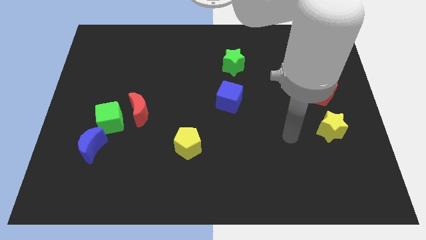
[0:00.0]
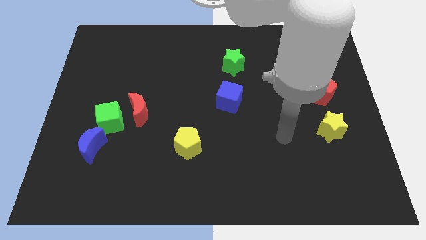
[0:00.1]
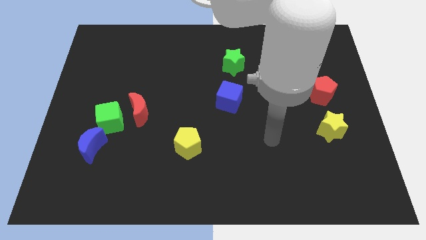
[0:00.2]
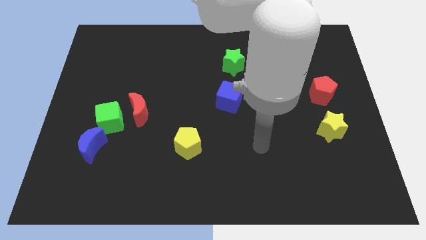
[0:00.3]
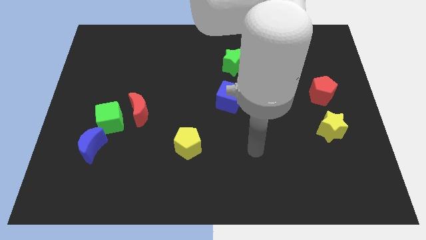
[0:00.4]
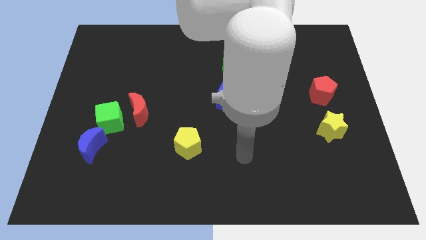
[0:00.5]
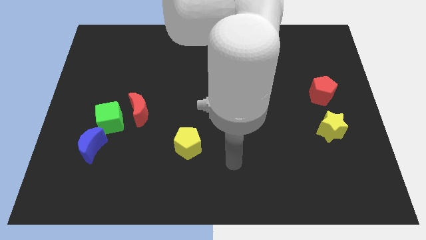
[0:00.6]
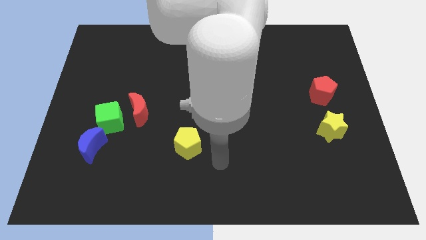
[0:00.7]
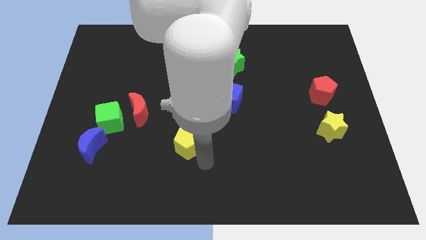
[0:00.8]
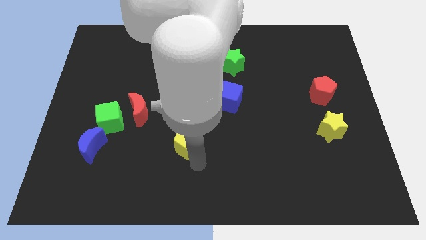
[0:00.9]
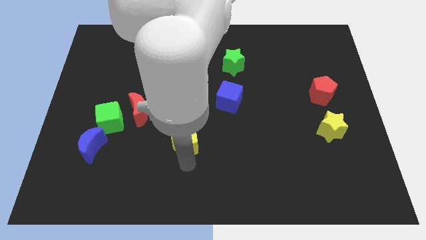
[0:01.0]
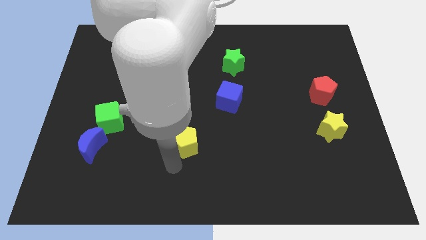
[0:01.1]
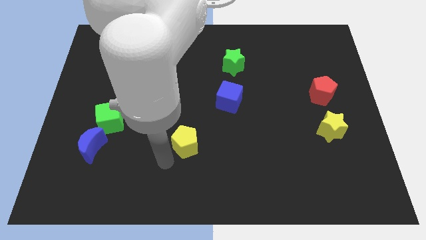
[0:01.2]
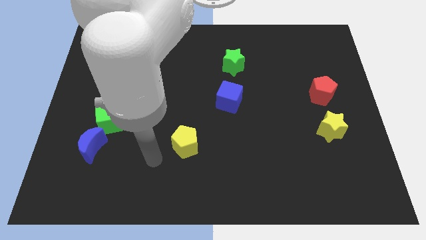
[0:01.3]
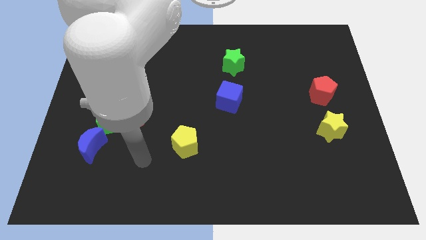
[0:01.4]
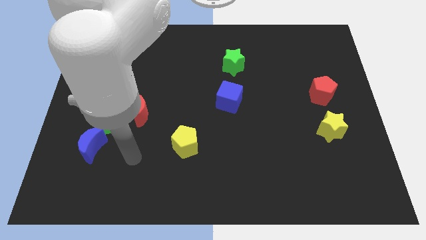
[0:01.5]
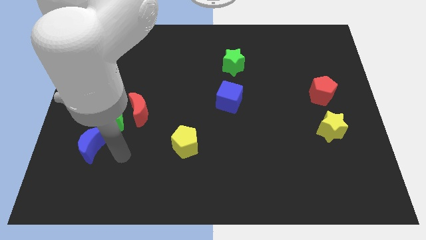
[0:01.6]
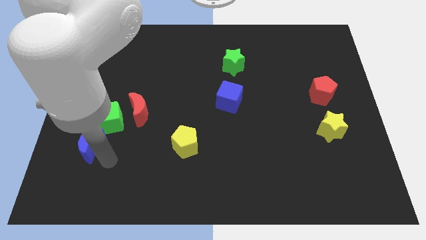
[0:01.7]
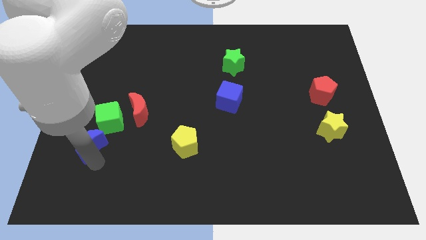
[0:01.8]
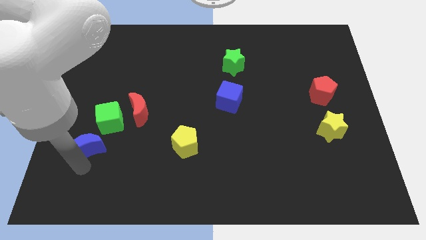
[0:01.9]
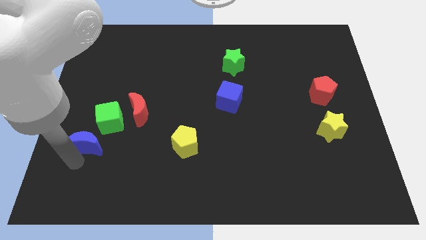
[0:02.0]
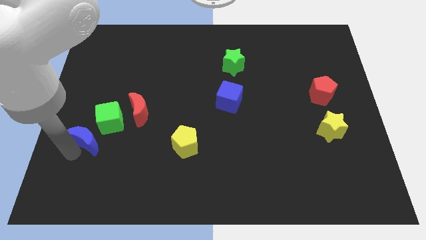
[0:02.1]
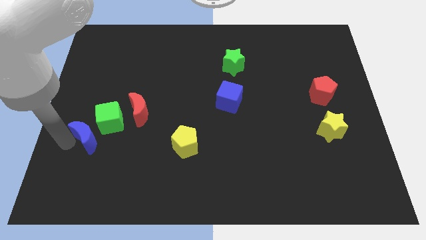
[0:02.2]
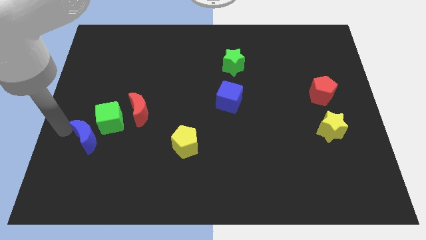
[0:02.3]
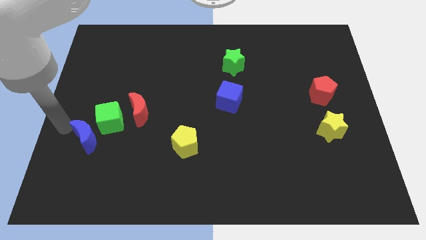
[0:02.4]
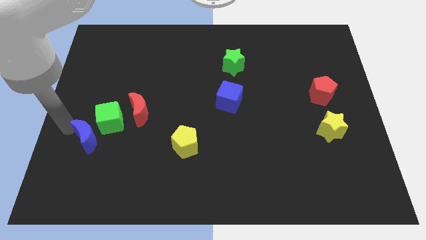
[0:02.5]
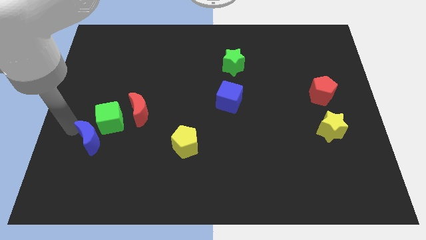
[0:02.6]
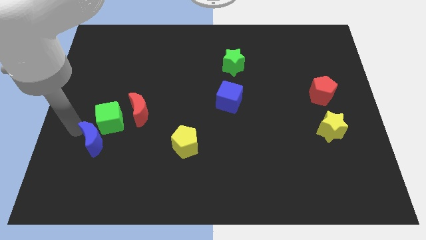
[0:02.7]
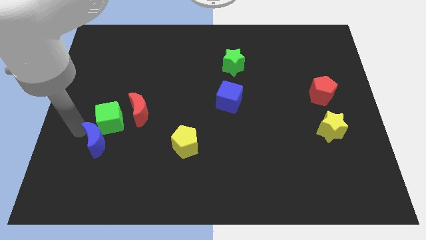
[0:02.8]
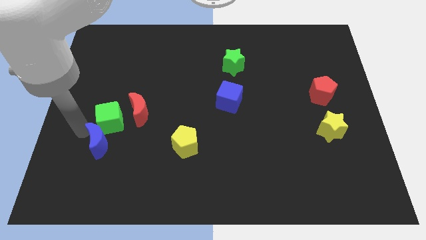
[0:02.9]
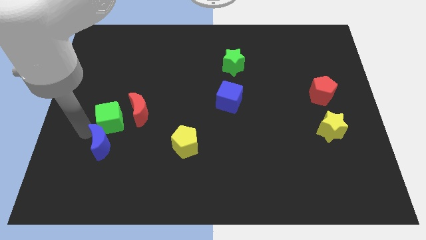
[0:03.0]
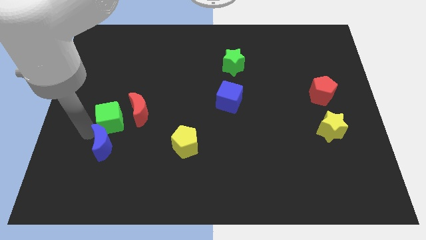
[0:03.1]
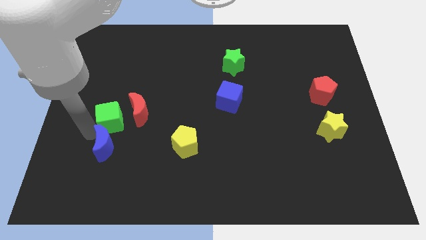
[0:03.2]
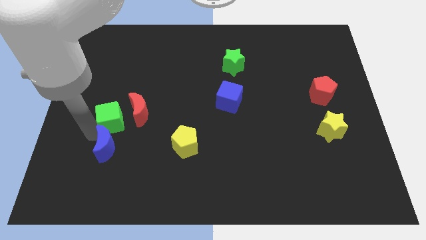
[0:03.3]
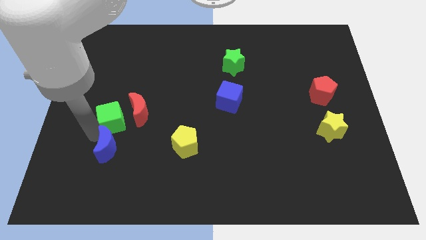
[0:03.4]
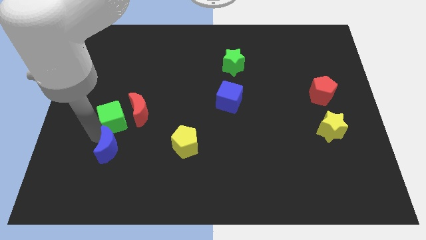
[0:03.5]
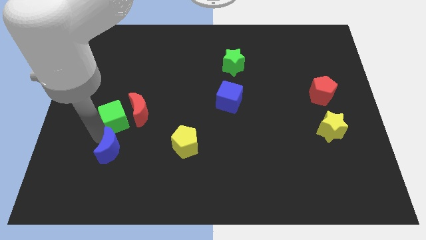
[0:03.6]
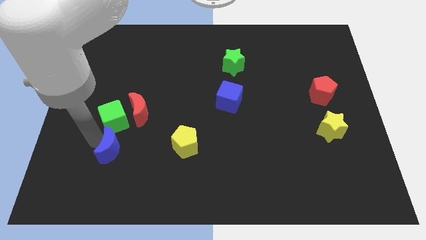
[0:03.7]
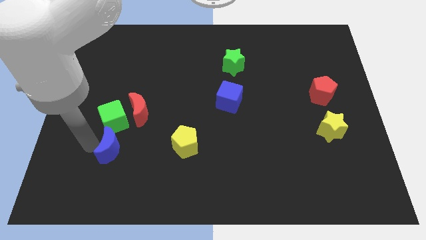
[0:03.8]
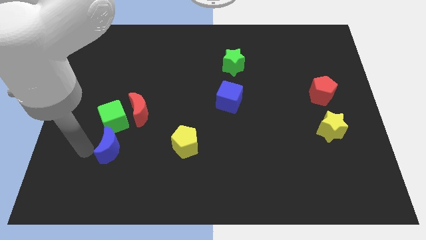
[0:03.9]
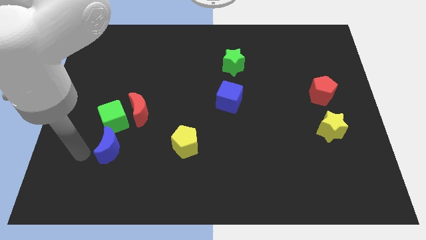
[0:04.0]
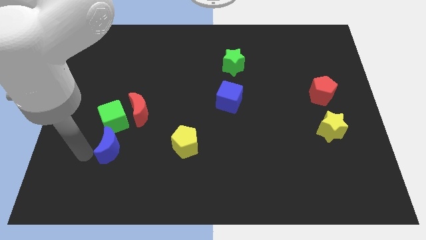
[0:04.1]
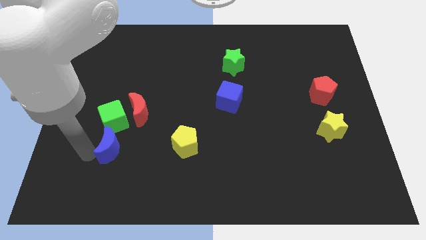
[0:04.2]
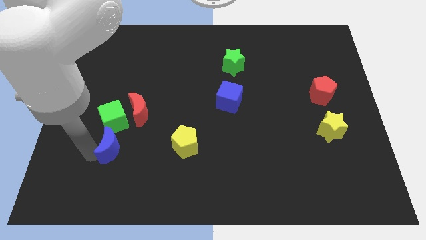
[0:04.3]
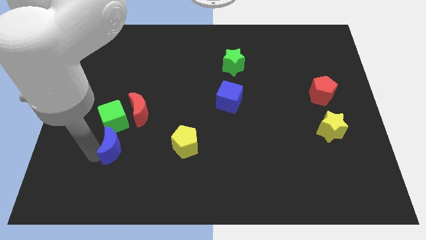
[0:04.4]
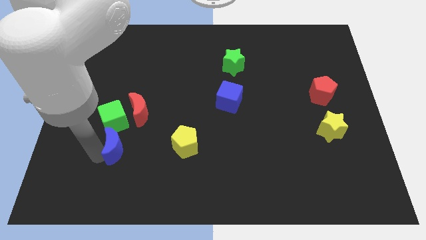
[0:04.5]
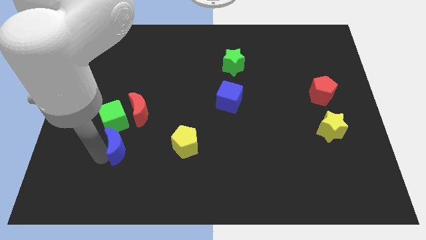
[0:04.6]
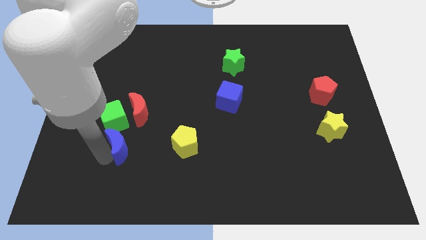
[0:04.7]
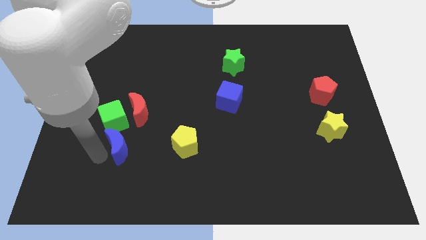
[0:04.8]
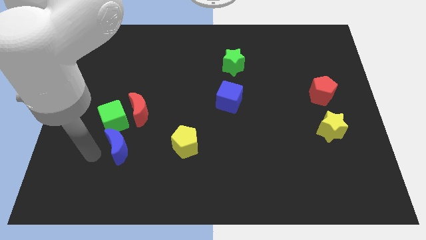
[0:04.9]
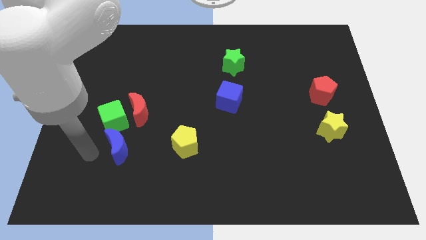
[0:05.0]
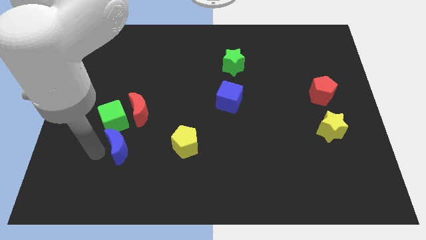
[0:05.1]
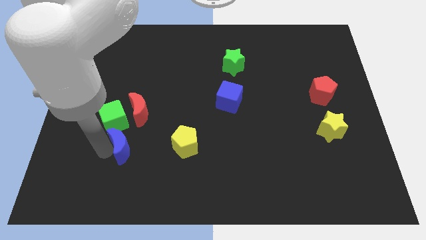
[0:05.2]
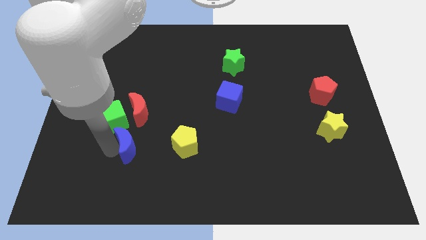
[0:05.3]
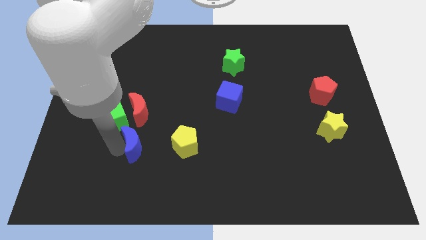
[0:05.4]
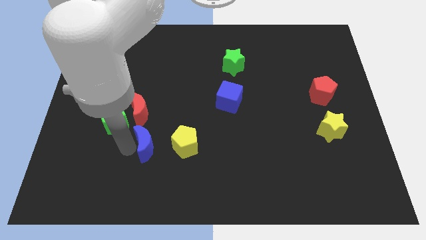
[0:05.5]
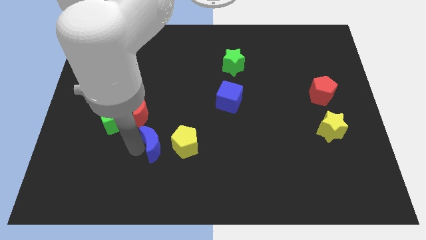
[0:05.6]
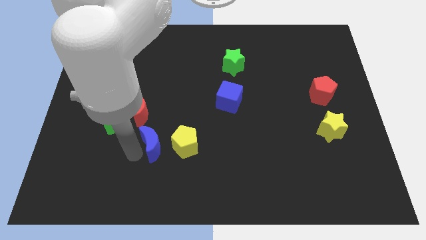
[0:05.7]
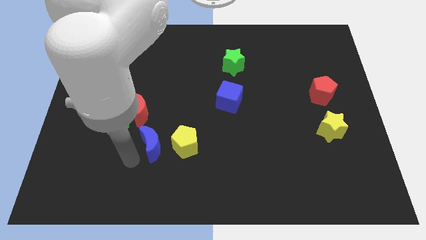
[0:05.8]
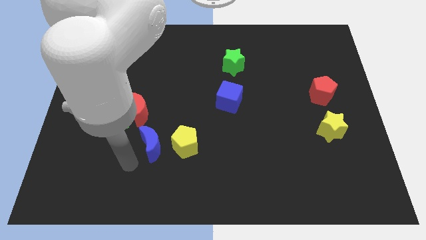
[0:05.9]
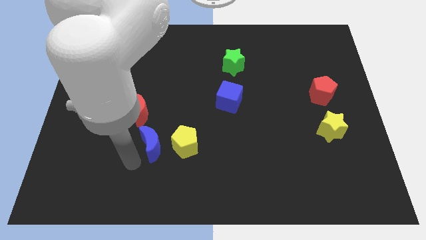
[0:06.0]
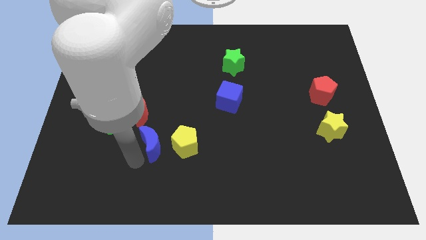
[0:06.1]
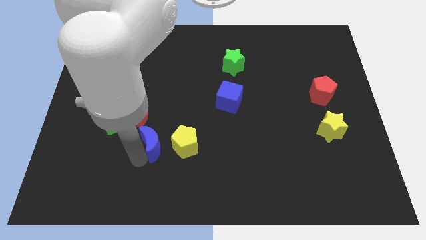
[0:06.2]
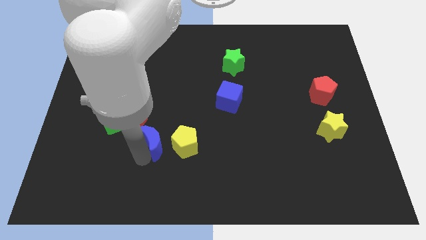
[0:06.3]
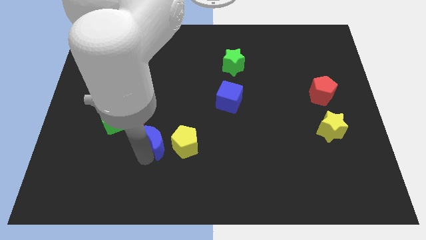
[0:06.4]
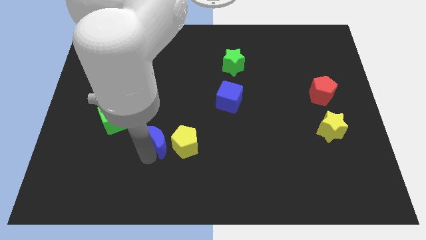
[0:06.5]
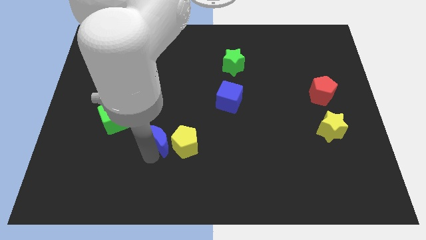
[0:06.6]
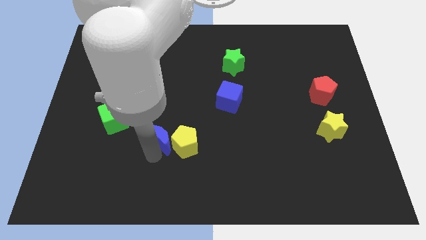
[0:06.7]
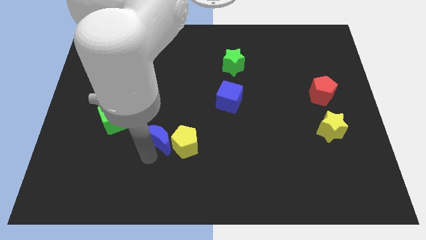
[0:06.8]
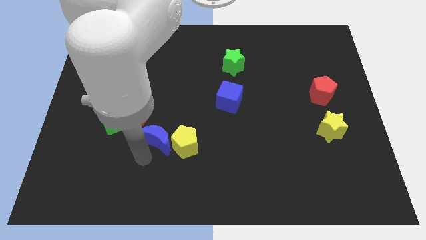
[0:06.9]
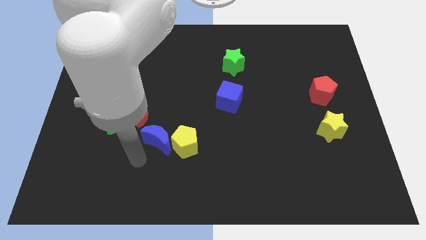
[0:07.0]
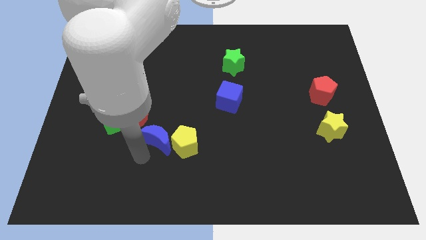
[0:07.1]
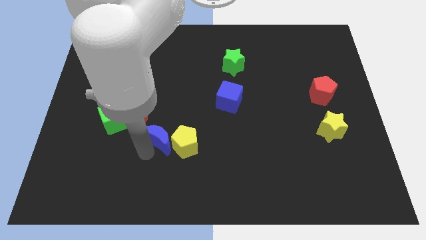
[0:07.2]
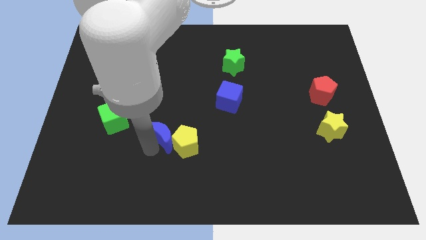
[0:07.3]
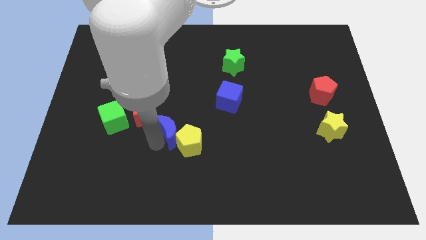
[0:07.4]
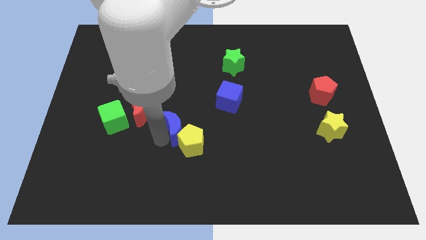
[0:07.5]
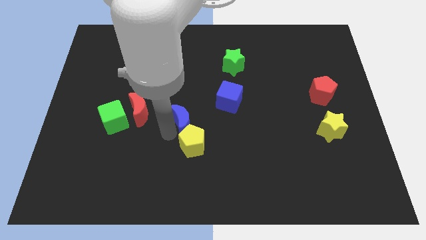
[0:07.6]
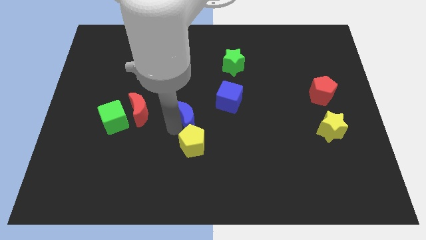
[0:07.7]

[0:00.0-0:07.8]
slide the blue moon diagonally down and to the left of the blue cube
